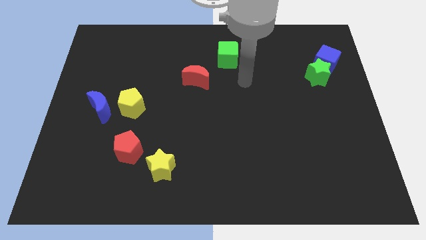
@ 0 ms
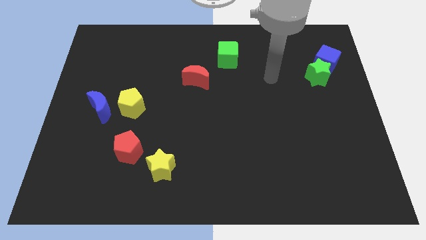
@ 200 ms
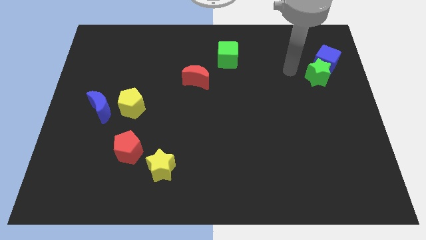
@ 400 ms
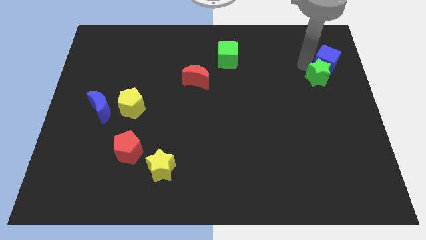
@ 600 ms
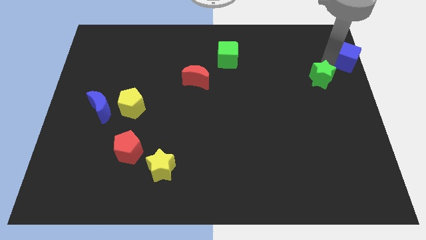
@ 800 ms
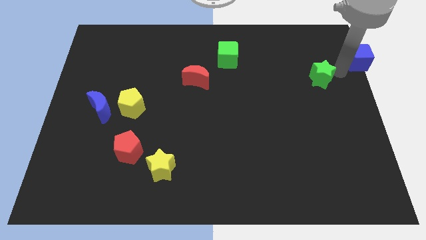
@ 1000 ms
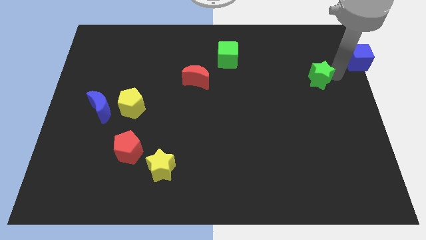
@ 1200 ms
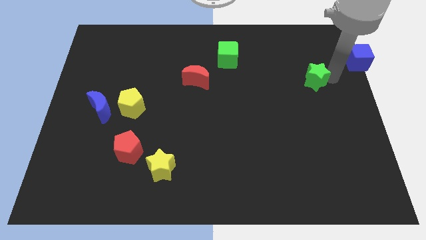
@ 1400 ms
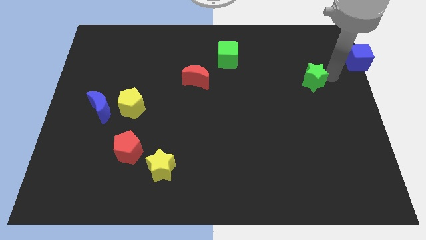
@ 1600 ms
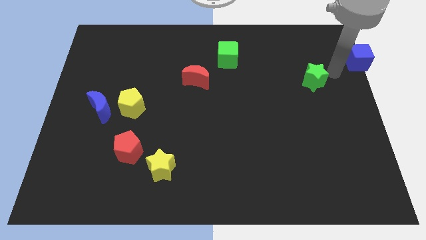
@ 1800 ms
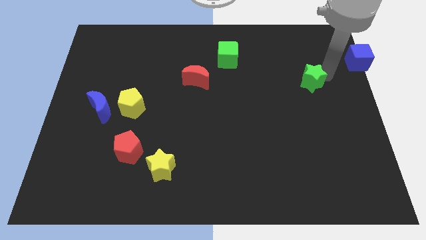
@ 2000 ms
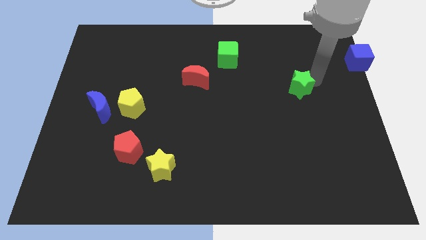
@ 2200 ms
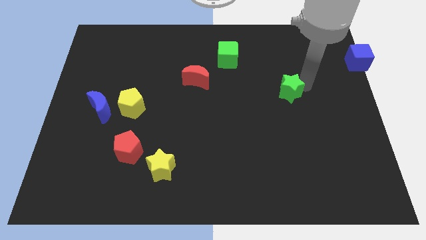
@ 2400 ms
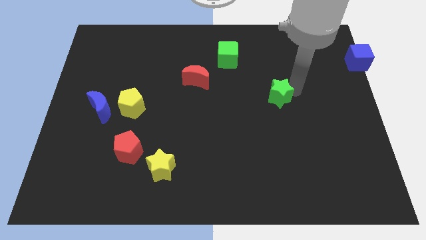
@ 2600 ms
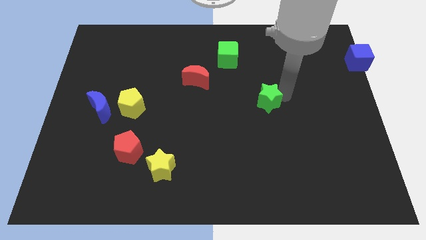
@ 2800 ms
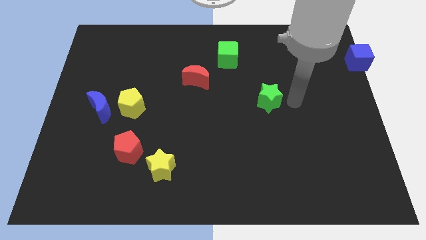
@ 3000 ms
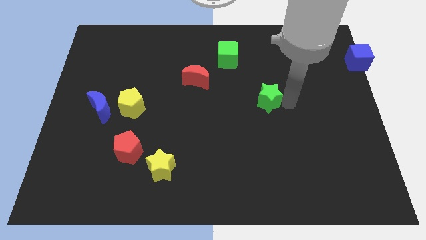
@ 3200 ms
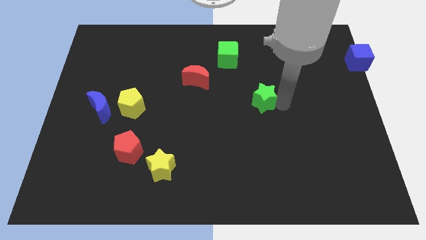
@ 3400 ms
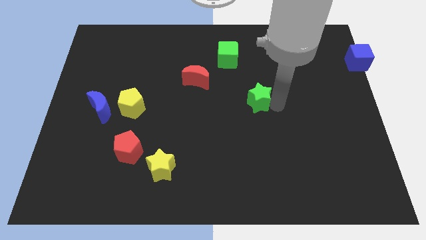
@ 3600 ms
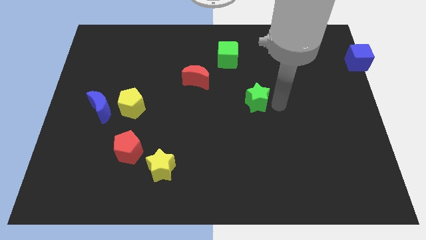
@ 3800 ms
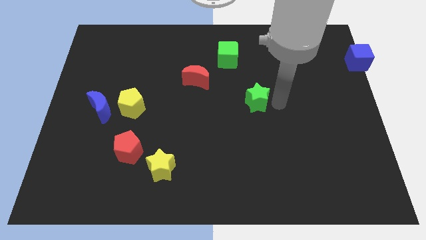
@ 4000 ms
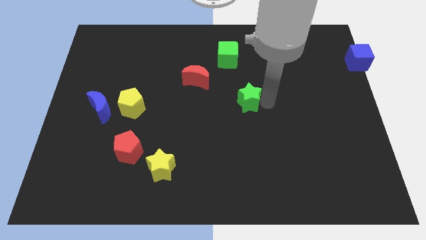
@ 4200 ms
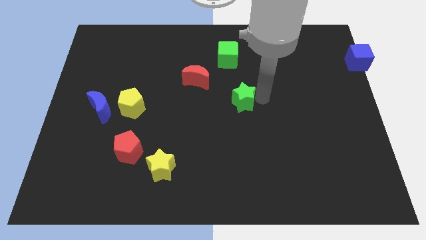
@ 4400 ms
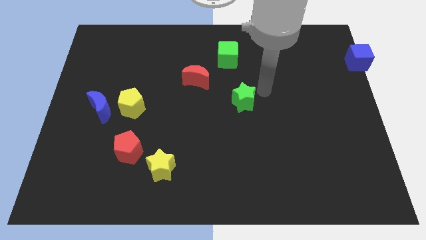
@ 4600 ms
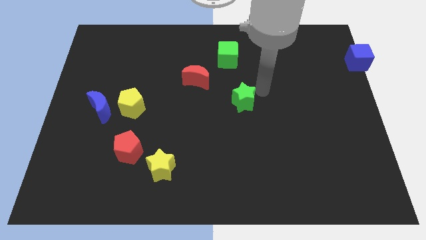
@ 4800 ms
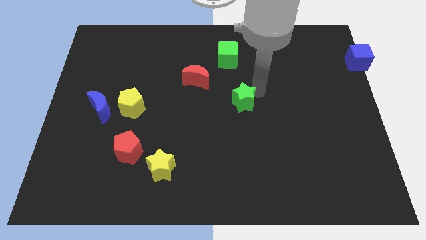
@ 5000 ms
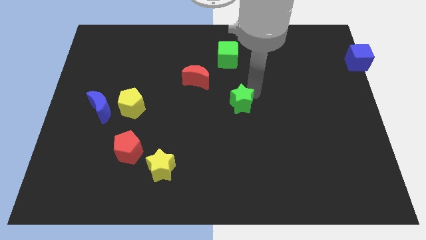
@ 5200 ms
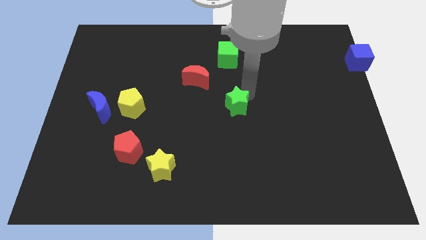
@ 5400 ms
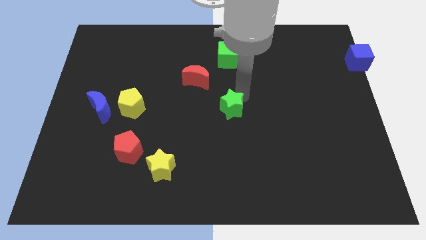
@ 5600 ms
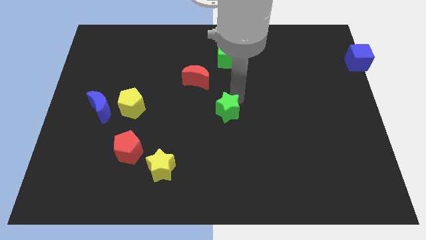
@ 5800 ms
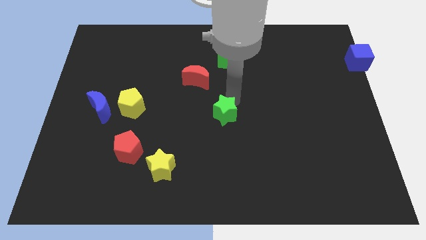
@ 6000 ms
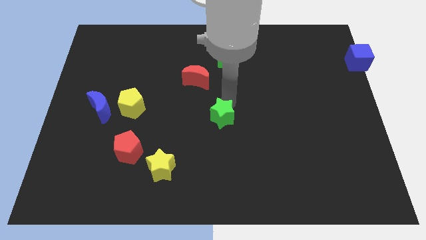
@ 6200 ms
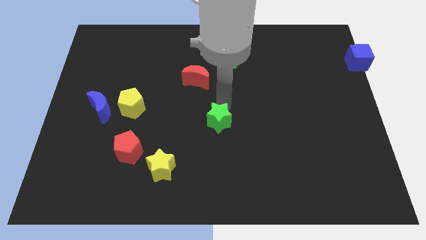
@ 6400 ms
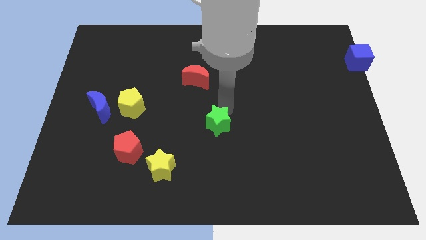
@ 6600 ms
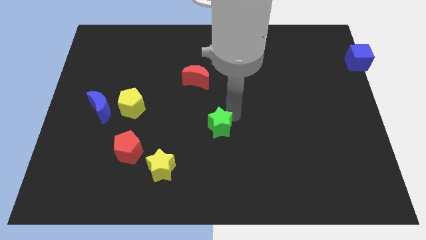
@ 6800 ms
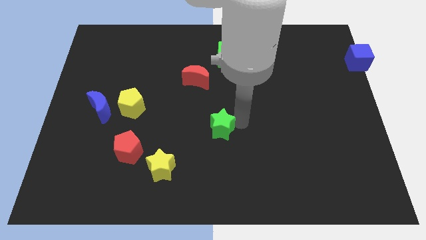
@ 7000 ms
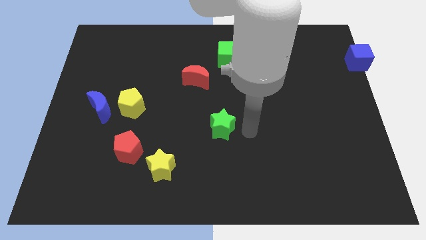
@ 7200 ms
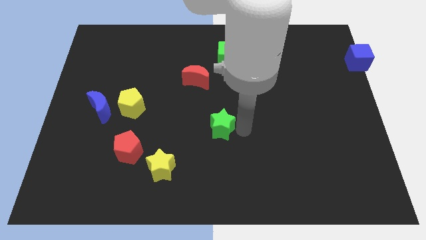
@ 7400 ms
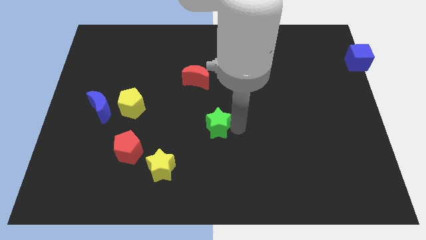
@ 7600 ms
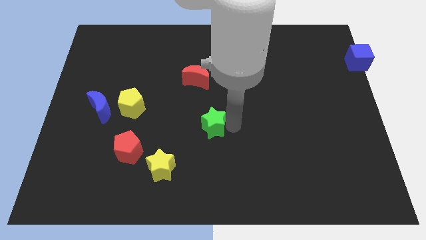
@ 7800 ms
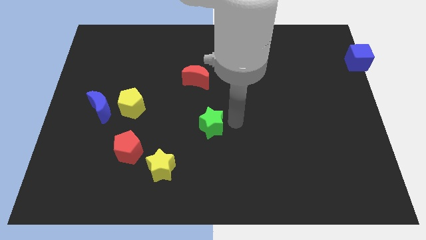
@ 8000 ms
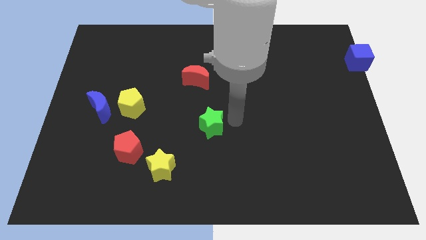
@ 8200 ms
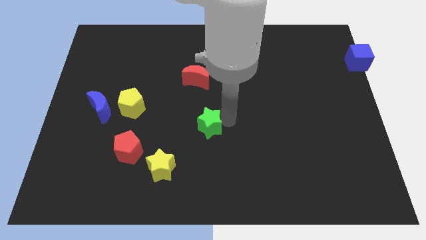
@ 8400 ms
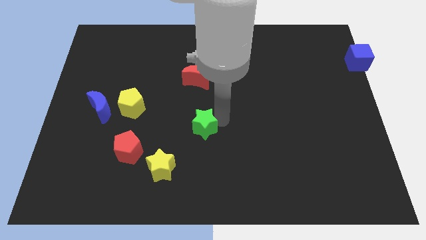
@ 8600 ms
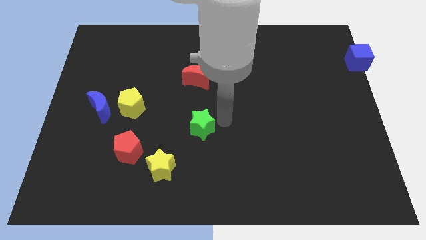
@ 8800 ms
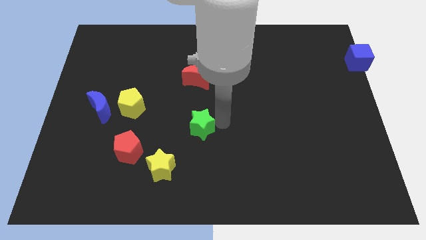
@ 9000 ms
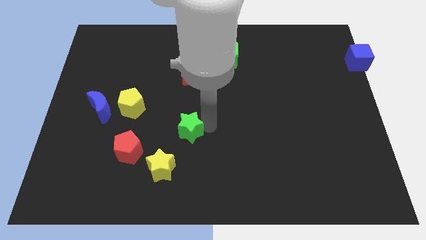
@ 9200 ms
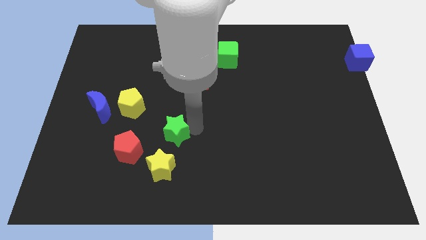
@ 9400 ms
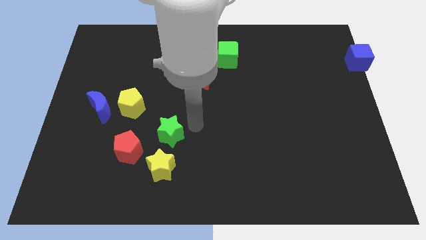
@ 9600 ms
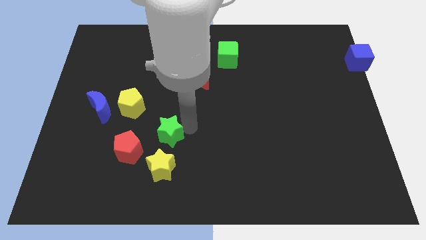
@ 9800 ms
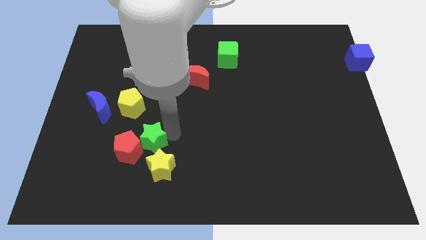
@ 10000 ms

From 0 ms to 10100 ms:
move the green star to the red pentagon

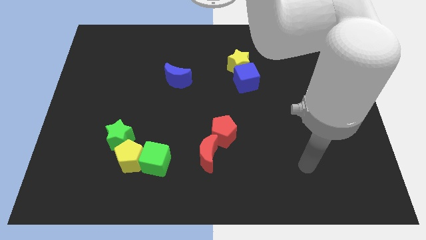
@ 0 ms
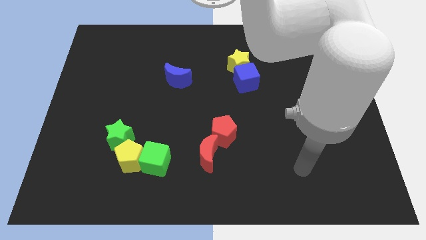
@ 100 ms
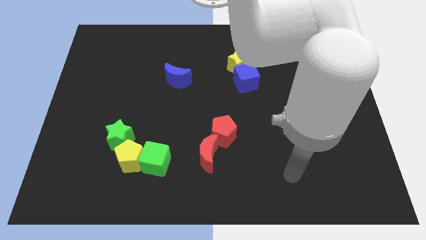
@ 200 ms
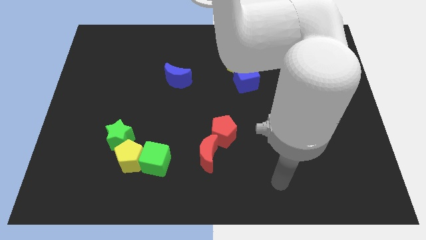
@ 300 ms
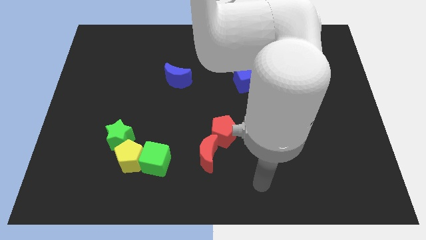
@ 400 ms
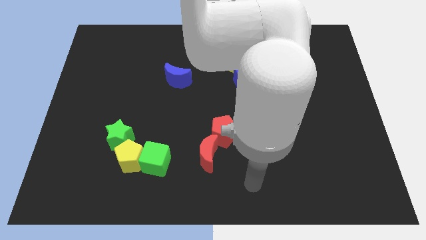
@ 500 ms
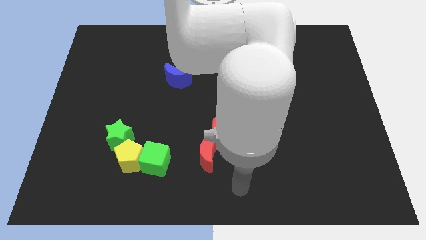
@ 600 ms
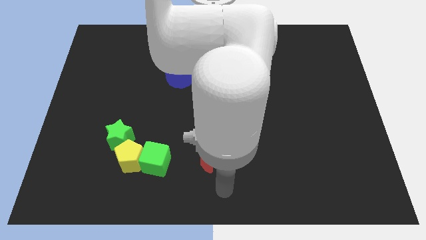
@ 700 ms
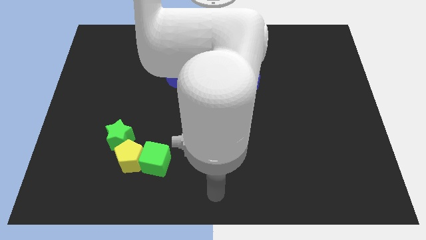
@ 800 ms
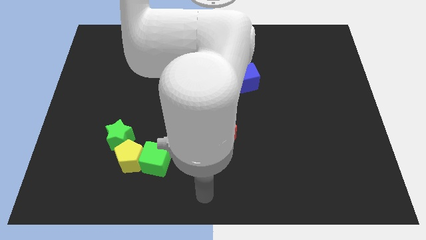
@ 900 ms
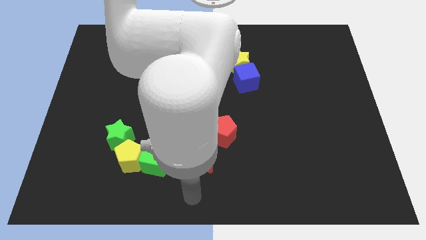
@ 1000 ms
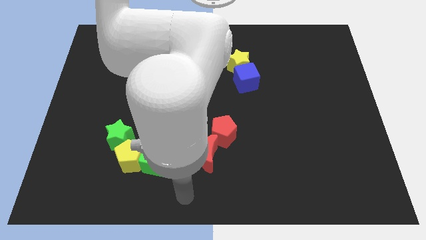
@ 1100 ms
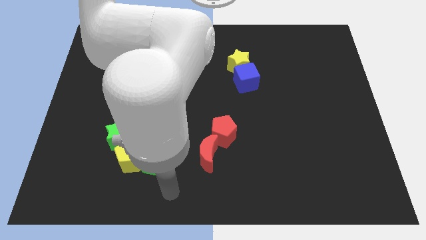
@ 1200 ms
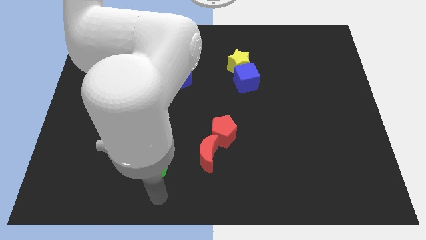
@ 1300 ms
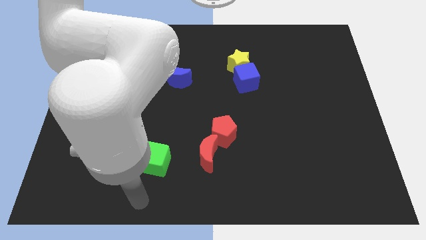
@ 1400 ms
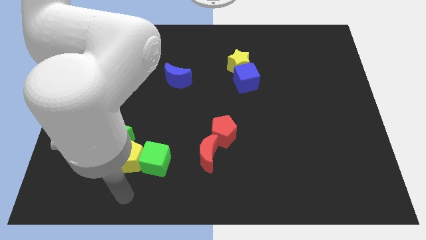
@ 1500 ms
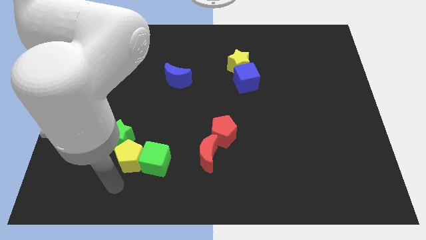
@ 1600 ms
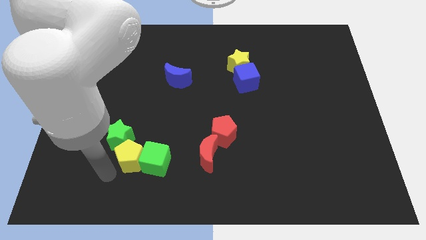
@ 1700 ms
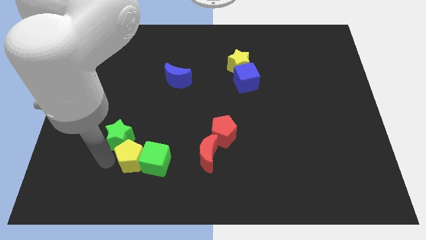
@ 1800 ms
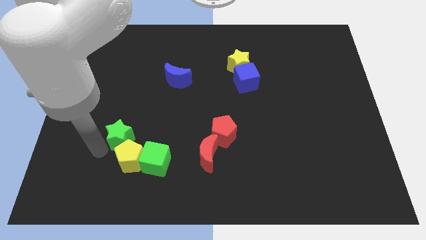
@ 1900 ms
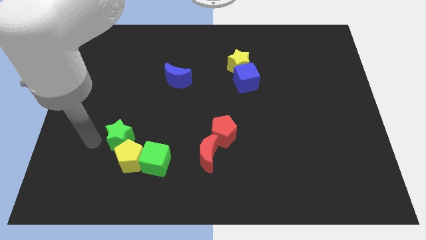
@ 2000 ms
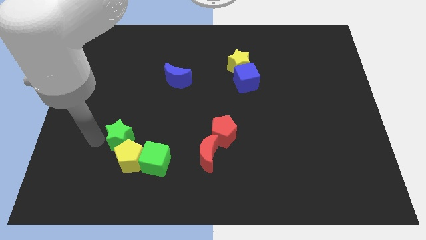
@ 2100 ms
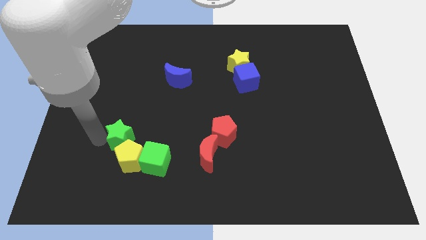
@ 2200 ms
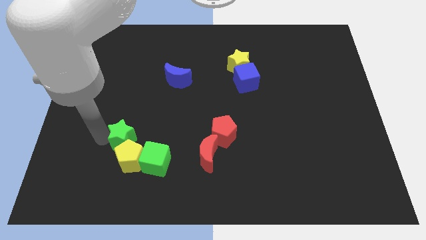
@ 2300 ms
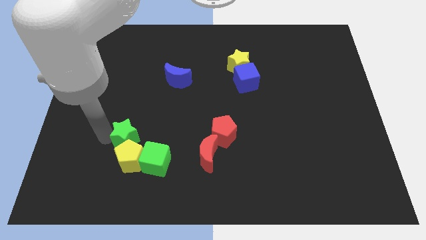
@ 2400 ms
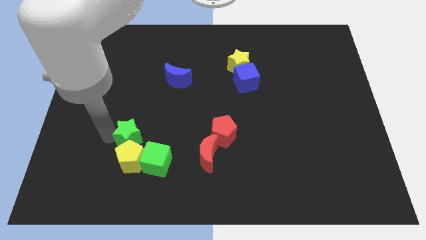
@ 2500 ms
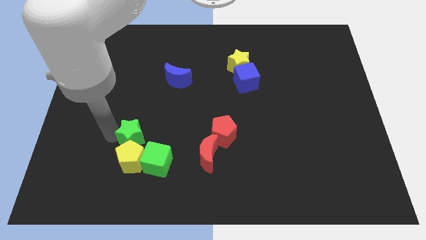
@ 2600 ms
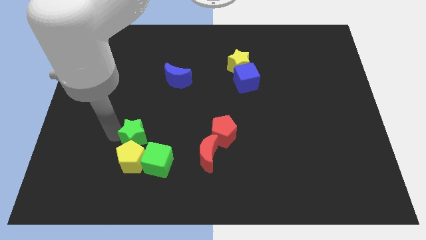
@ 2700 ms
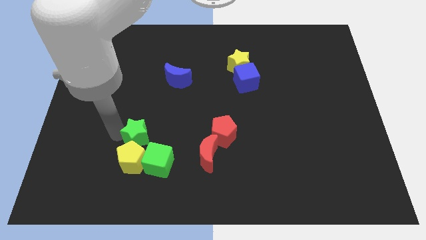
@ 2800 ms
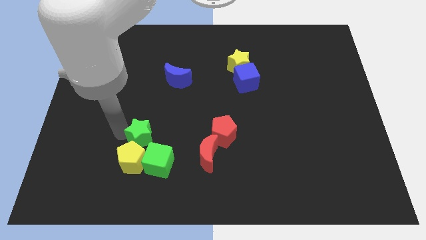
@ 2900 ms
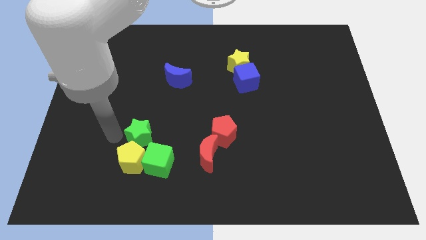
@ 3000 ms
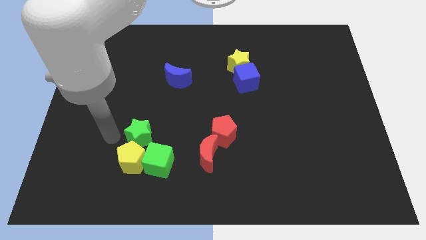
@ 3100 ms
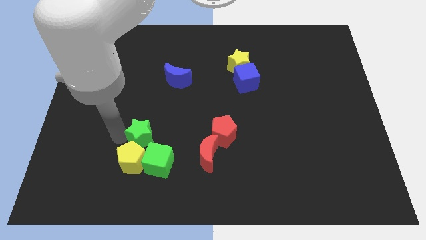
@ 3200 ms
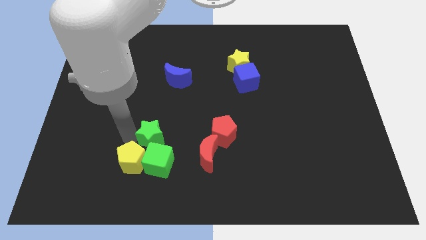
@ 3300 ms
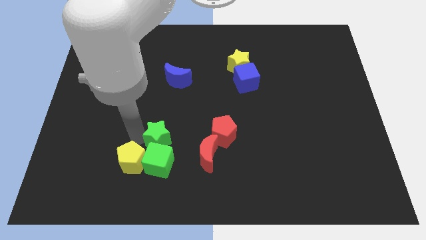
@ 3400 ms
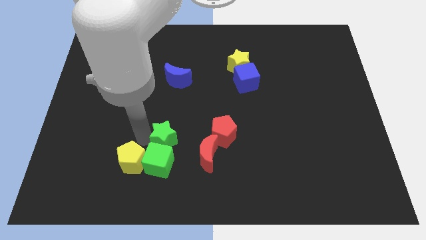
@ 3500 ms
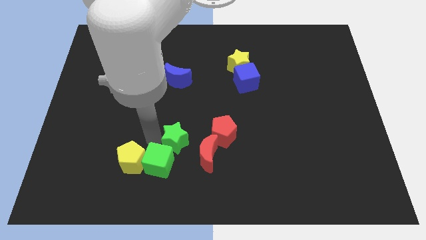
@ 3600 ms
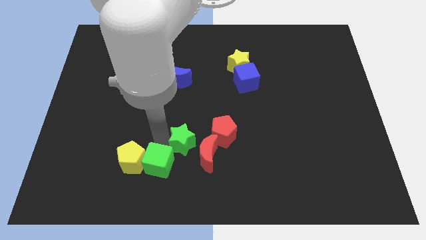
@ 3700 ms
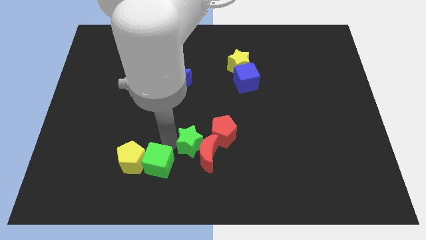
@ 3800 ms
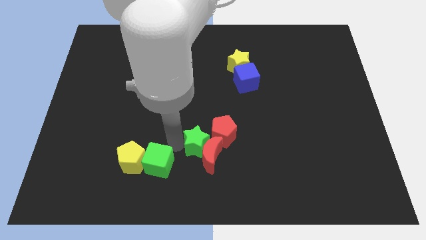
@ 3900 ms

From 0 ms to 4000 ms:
slide the green star next to the red pentagon
